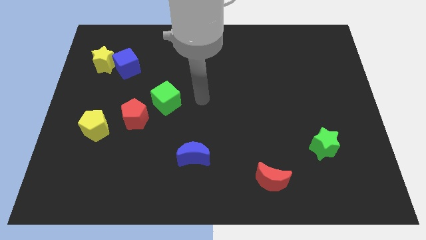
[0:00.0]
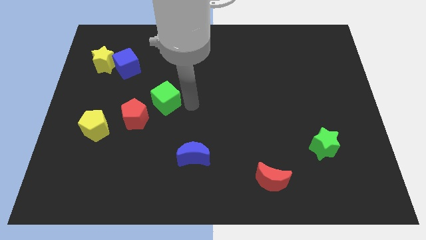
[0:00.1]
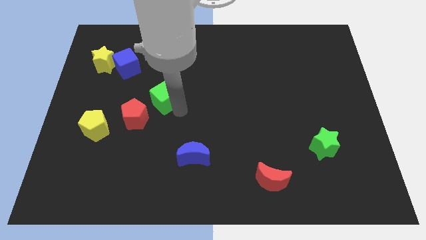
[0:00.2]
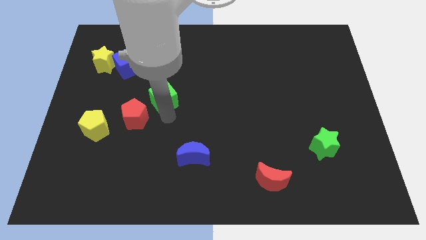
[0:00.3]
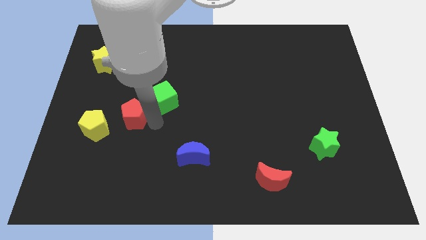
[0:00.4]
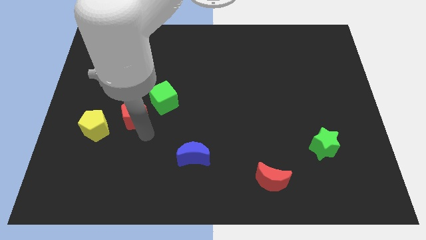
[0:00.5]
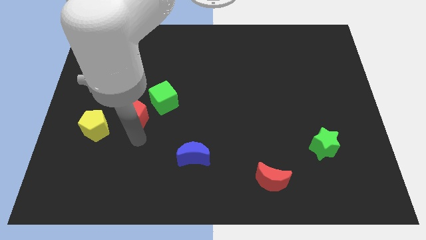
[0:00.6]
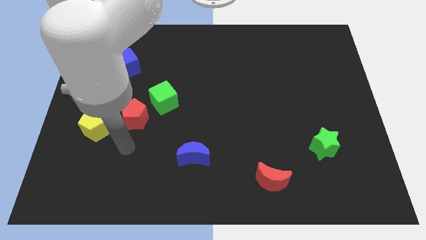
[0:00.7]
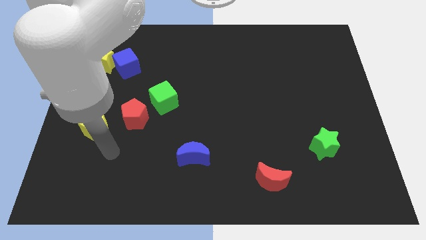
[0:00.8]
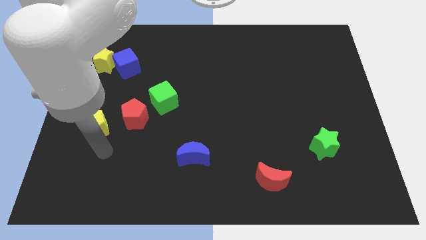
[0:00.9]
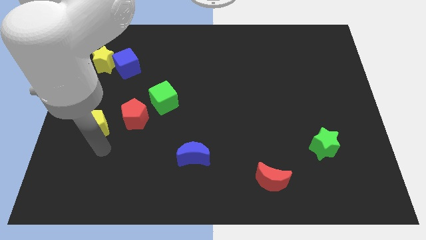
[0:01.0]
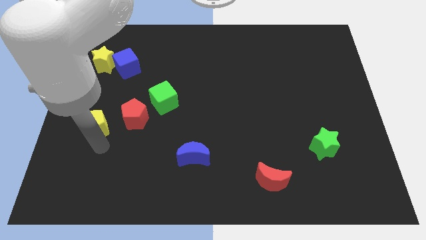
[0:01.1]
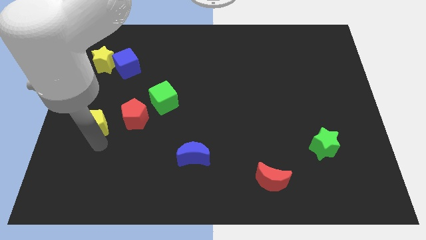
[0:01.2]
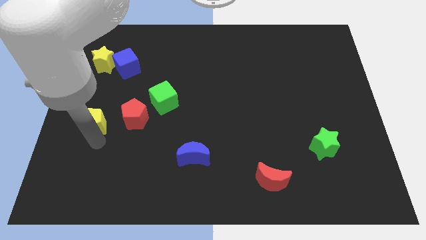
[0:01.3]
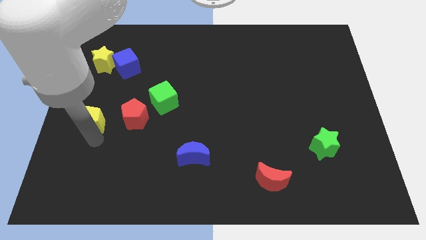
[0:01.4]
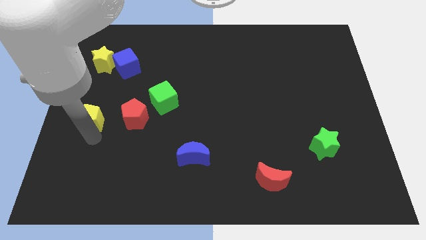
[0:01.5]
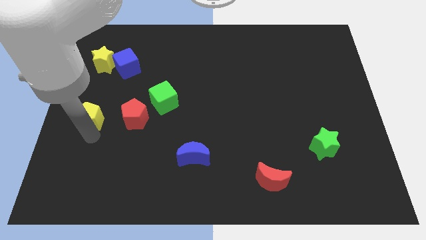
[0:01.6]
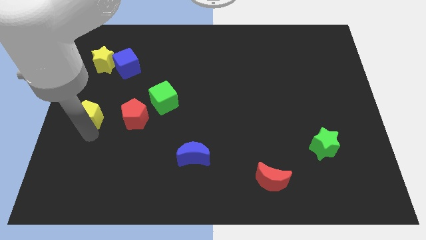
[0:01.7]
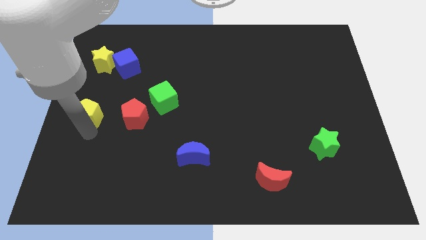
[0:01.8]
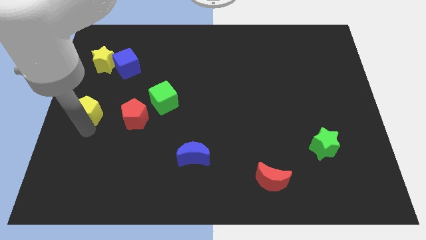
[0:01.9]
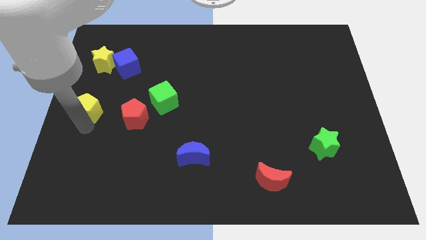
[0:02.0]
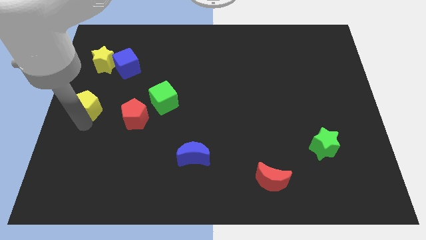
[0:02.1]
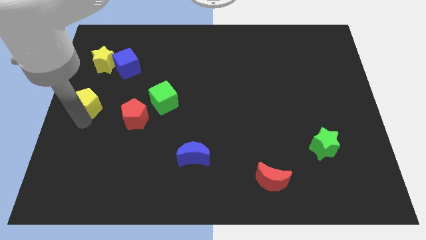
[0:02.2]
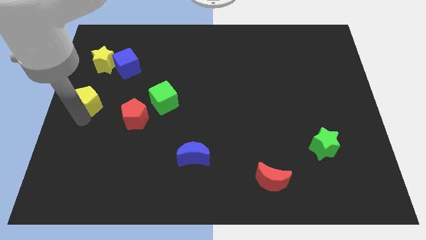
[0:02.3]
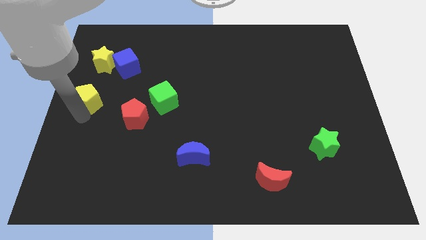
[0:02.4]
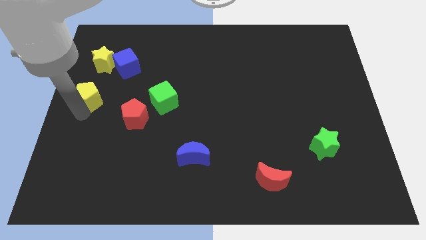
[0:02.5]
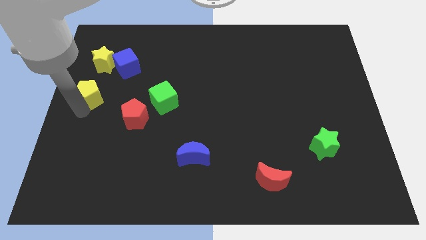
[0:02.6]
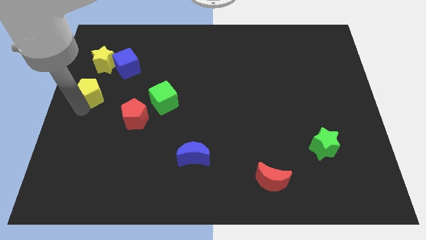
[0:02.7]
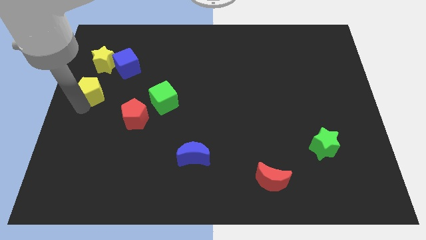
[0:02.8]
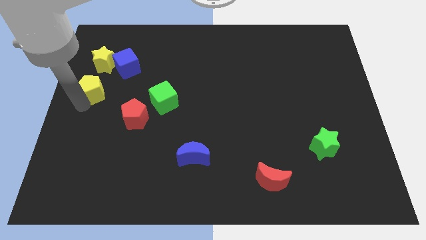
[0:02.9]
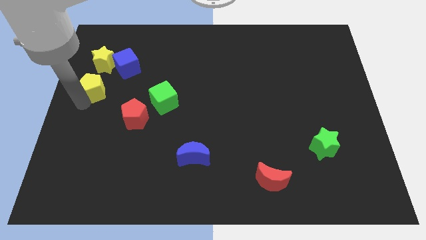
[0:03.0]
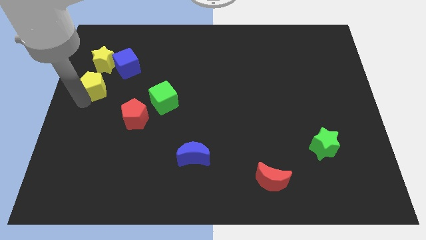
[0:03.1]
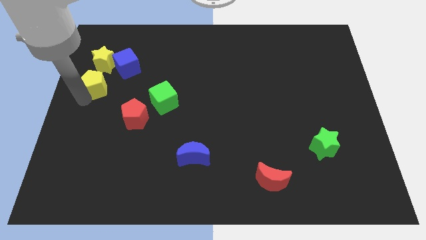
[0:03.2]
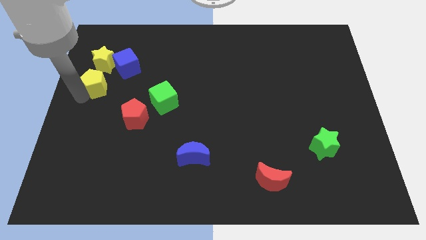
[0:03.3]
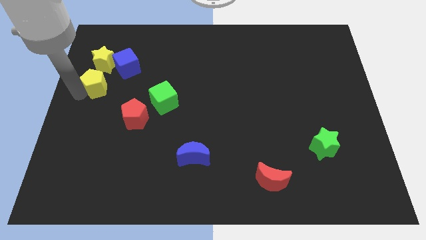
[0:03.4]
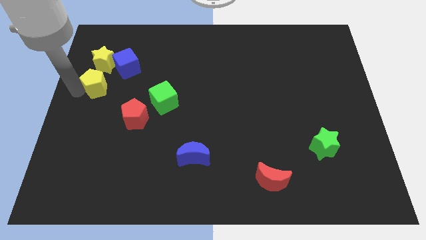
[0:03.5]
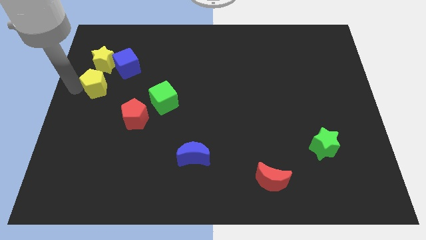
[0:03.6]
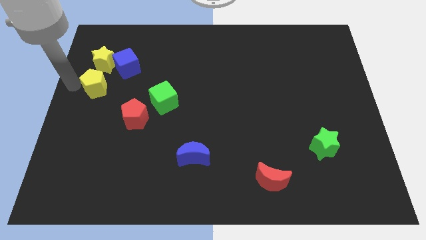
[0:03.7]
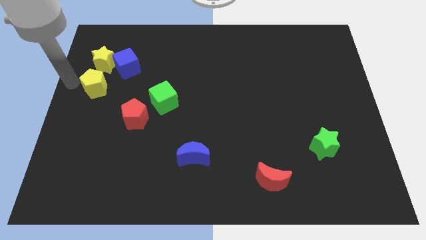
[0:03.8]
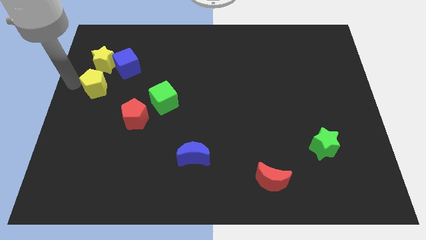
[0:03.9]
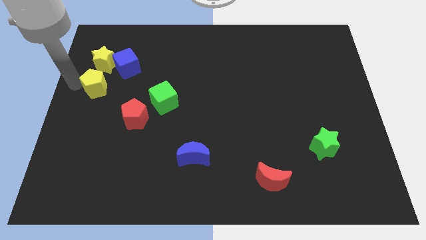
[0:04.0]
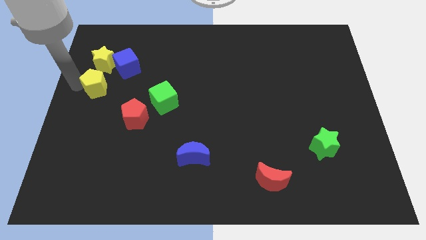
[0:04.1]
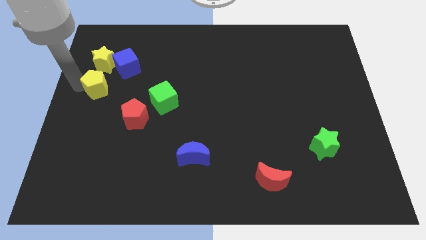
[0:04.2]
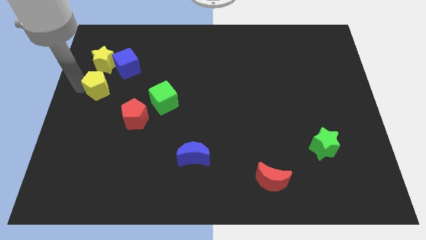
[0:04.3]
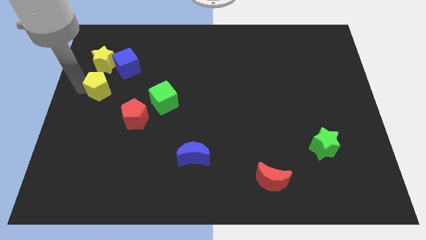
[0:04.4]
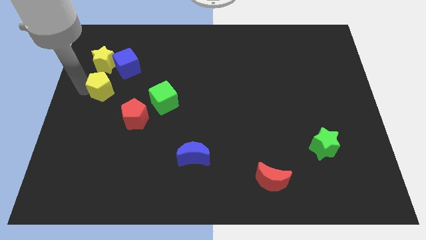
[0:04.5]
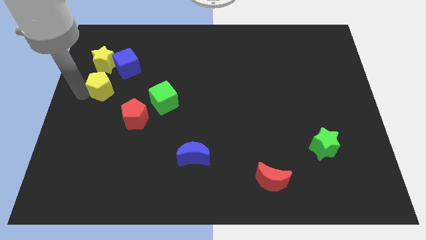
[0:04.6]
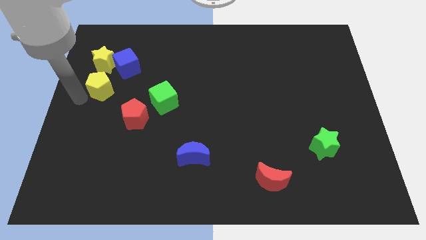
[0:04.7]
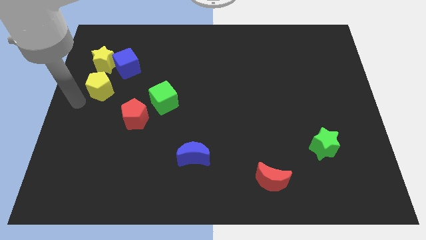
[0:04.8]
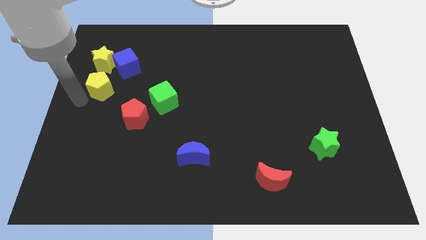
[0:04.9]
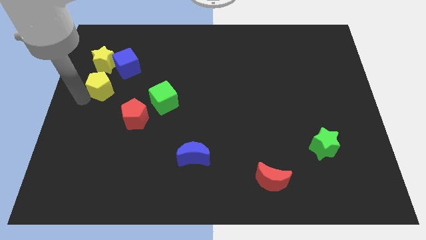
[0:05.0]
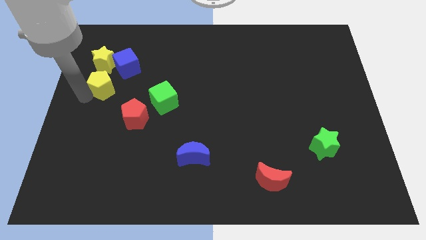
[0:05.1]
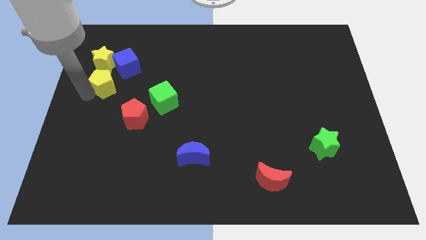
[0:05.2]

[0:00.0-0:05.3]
move the yellow pentagon diagonally down and to the right of the yellow star
